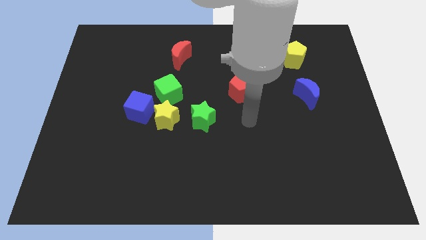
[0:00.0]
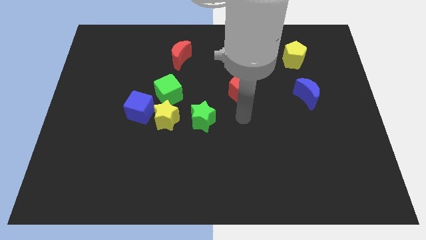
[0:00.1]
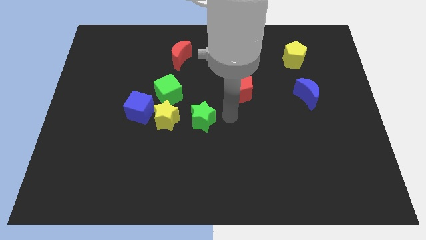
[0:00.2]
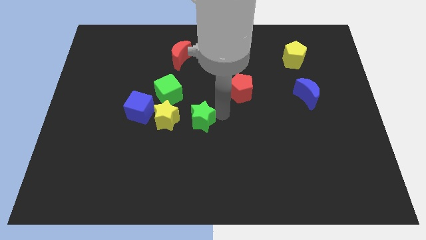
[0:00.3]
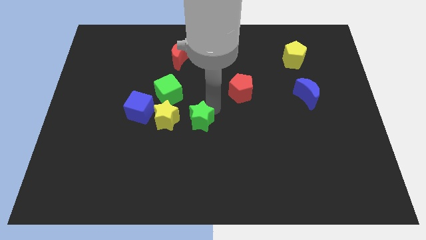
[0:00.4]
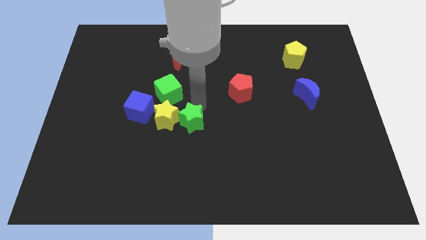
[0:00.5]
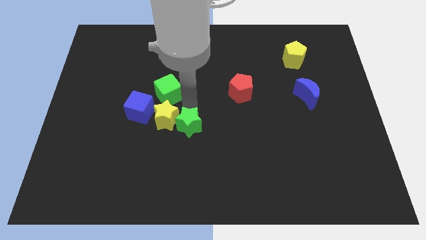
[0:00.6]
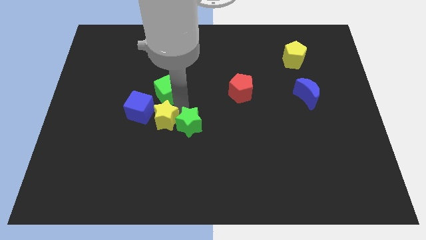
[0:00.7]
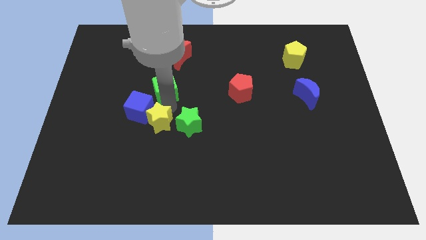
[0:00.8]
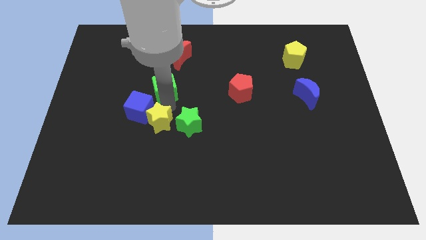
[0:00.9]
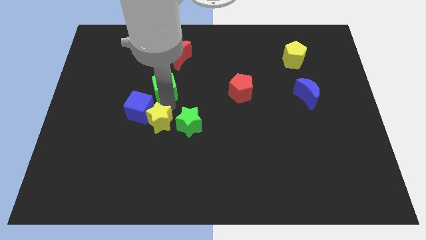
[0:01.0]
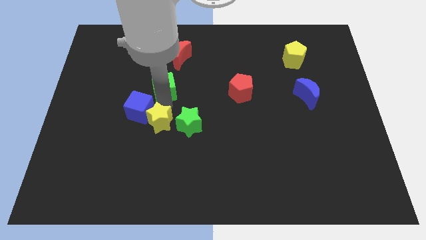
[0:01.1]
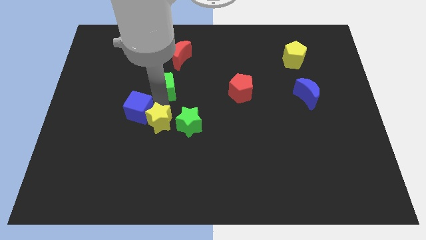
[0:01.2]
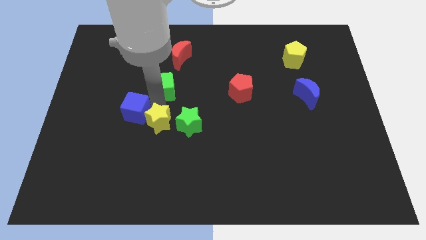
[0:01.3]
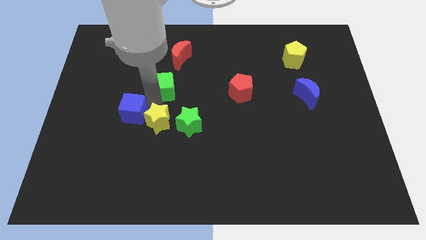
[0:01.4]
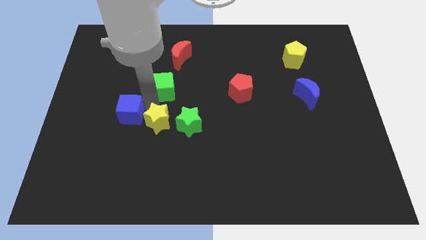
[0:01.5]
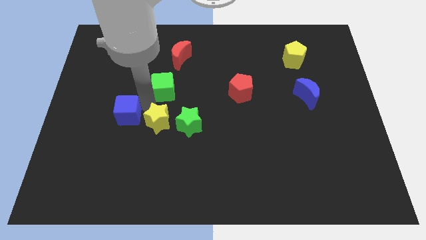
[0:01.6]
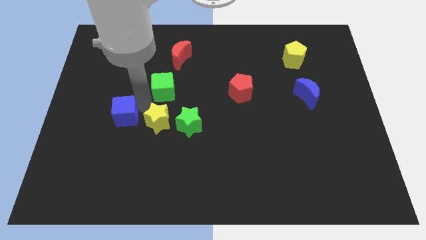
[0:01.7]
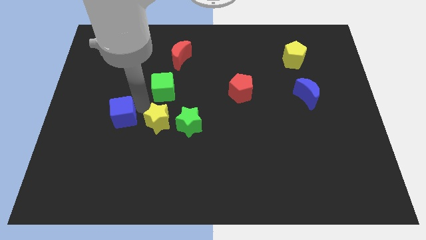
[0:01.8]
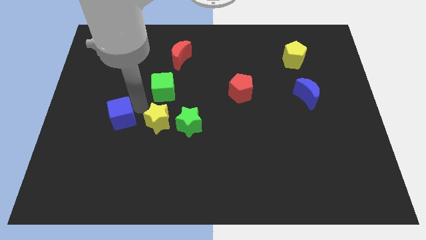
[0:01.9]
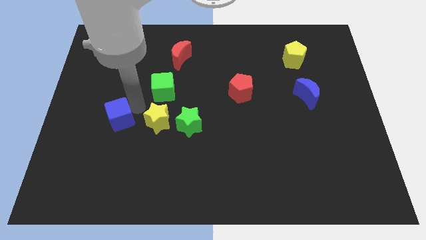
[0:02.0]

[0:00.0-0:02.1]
pull the blue cube apart from the yellow star and green cube

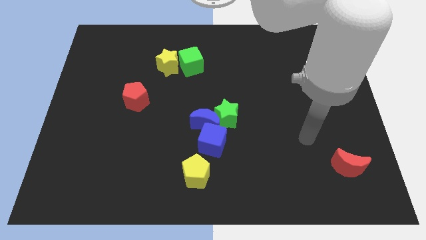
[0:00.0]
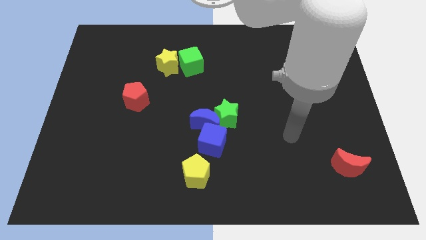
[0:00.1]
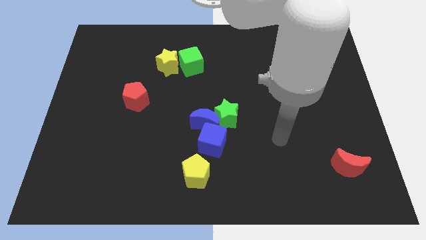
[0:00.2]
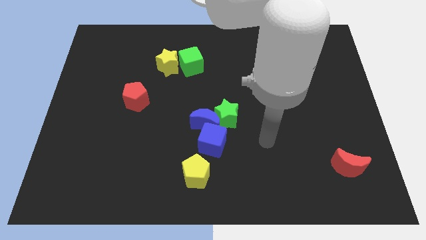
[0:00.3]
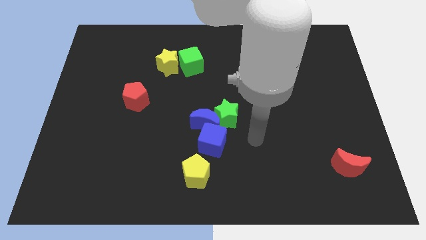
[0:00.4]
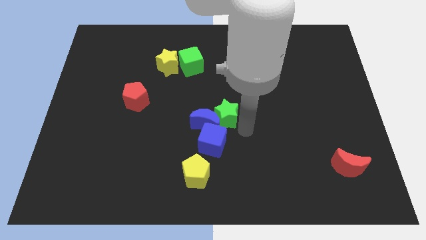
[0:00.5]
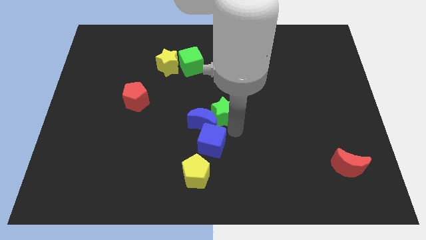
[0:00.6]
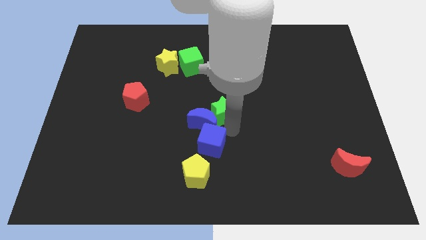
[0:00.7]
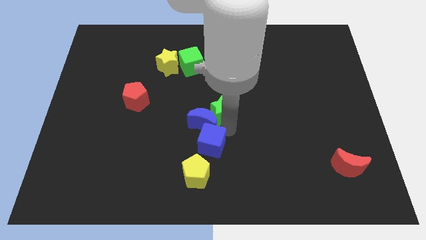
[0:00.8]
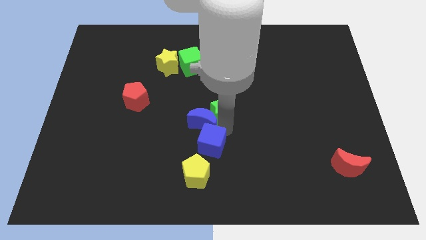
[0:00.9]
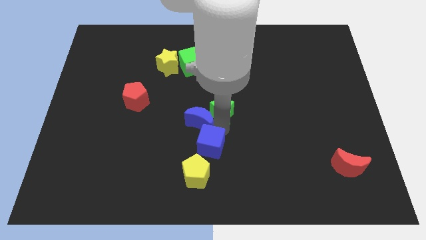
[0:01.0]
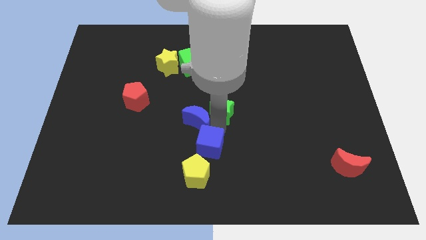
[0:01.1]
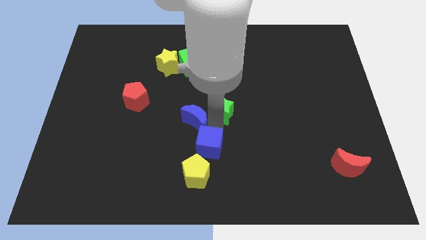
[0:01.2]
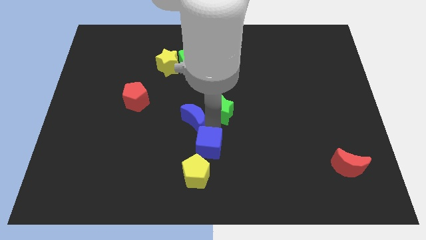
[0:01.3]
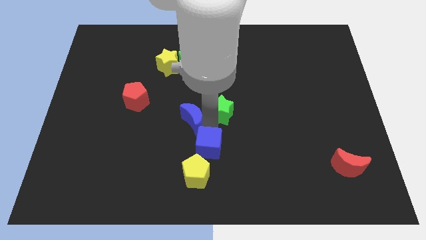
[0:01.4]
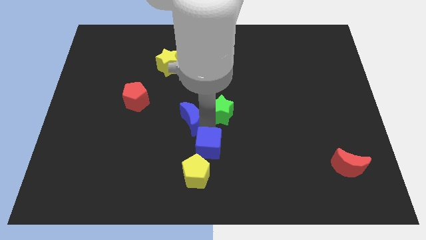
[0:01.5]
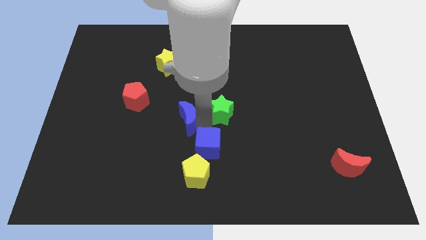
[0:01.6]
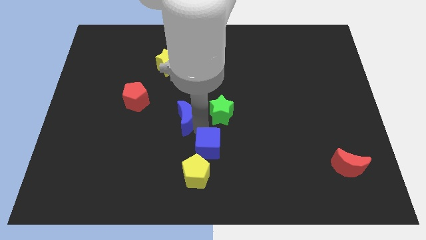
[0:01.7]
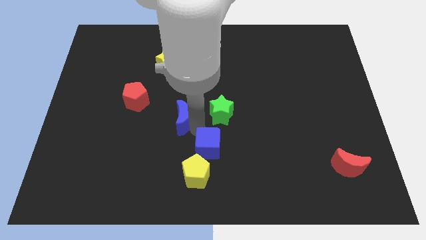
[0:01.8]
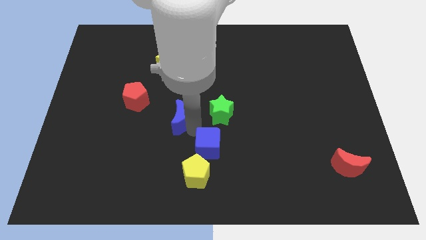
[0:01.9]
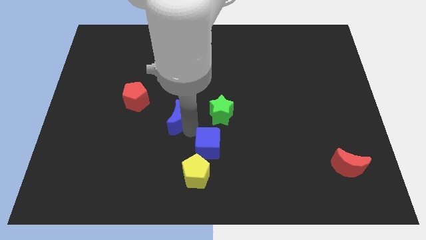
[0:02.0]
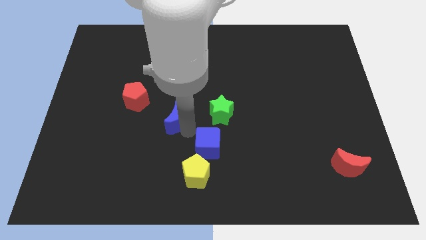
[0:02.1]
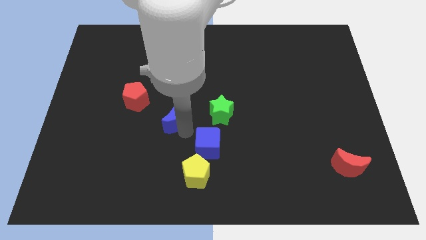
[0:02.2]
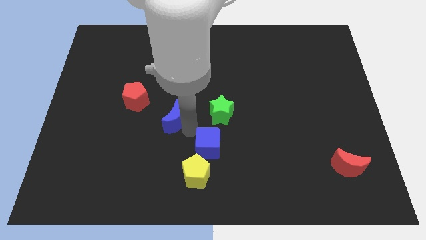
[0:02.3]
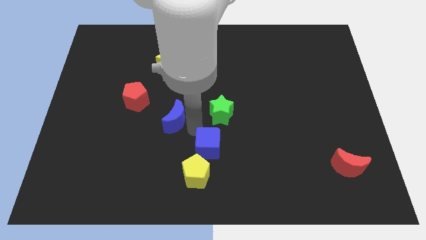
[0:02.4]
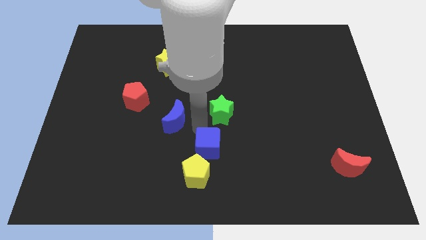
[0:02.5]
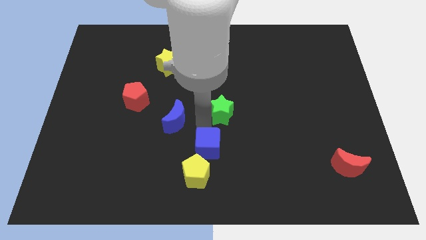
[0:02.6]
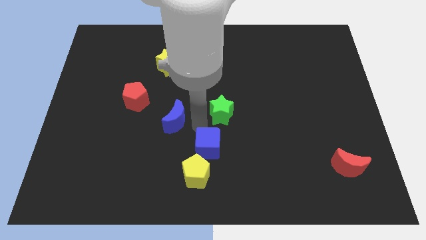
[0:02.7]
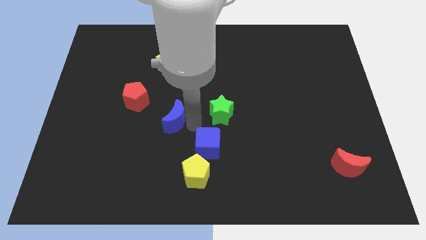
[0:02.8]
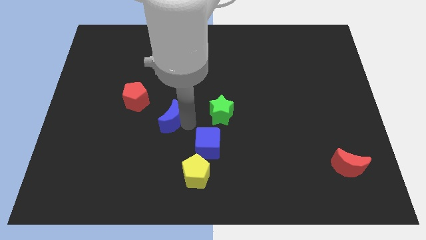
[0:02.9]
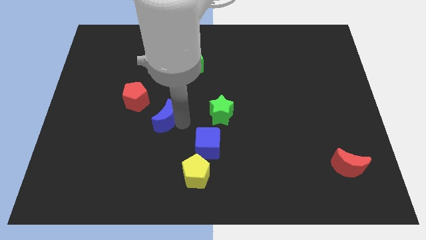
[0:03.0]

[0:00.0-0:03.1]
pull the blue moon apart from the green star and blue cube

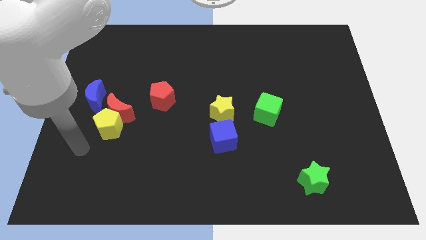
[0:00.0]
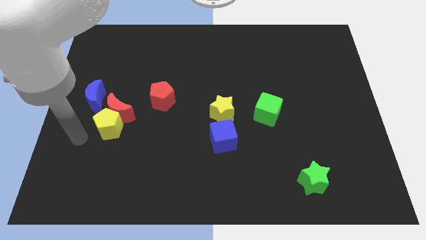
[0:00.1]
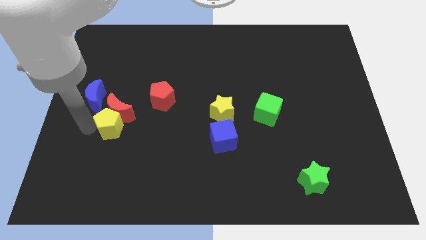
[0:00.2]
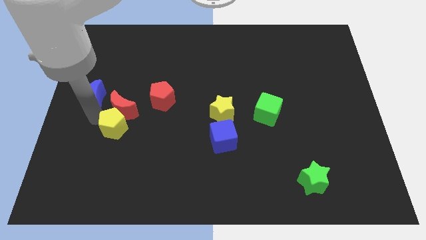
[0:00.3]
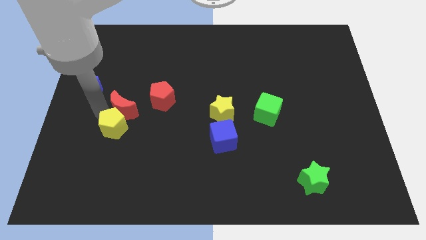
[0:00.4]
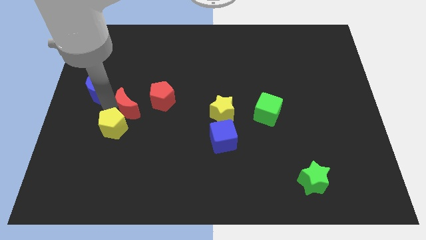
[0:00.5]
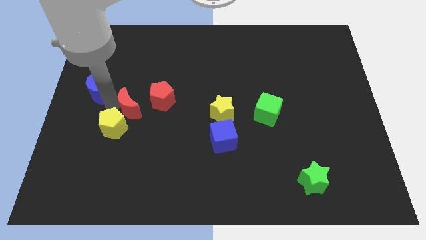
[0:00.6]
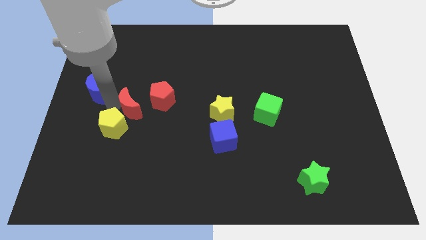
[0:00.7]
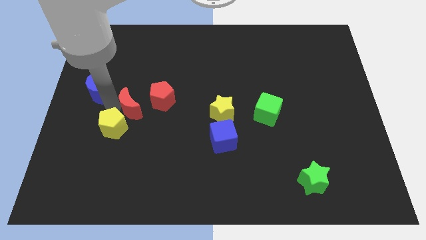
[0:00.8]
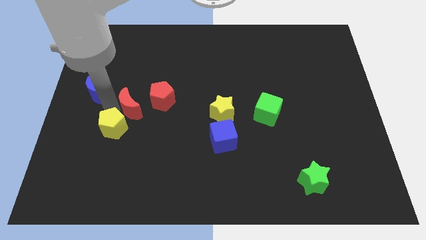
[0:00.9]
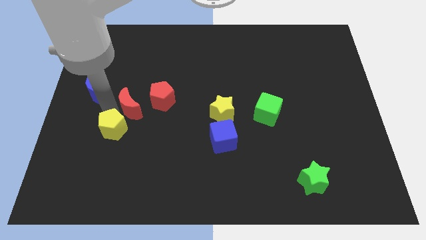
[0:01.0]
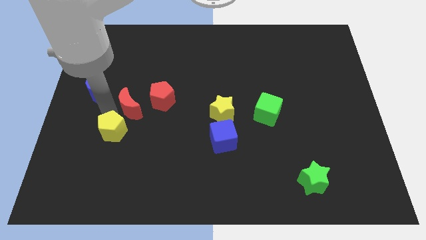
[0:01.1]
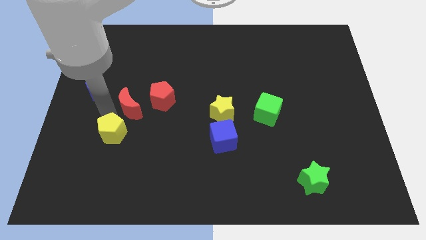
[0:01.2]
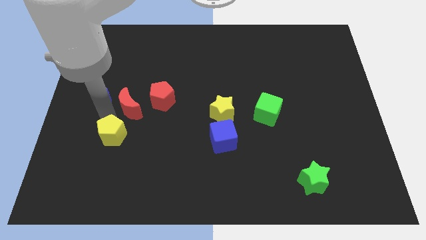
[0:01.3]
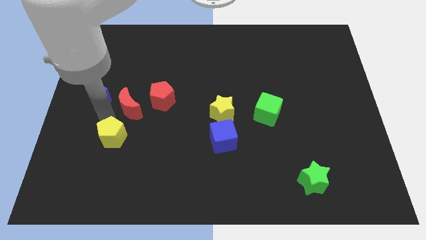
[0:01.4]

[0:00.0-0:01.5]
separate the yellow pentagon from the red moon and blue moon

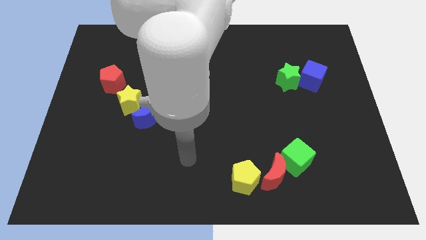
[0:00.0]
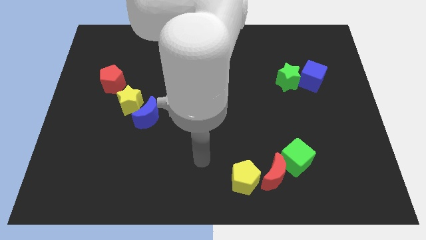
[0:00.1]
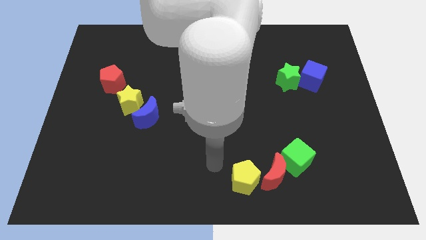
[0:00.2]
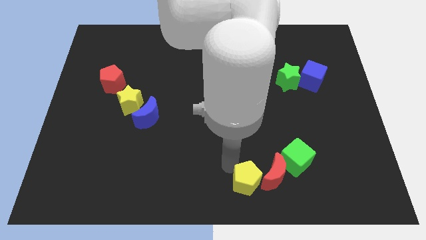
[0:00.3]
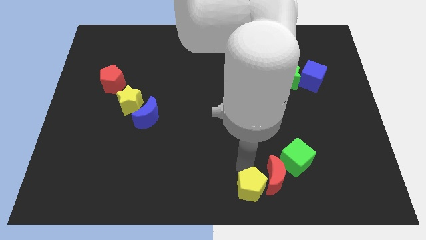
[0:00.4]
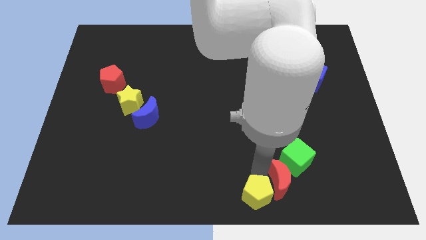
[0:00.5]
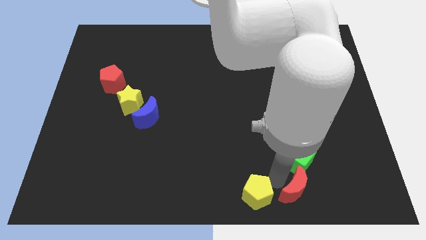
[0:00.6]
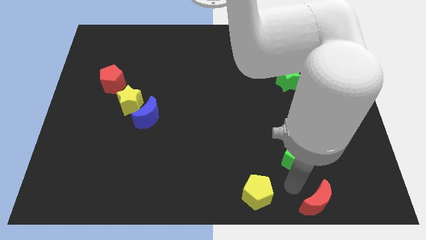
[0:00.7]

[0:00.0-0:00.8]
move the green cube away from the red moon

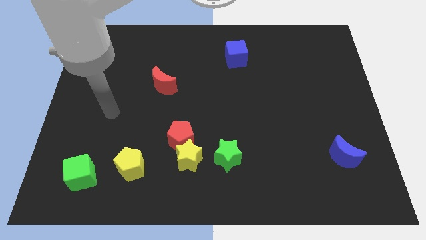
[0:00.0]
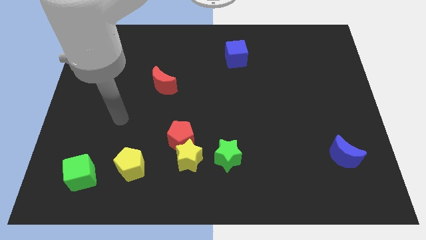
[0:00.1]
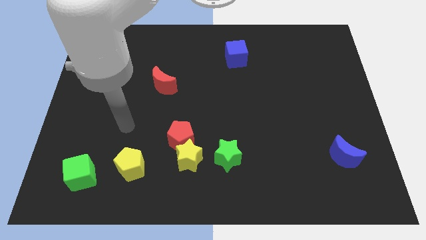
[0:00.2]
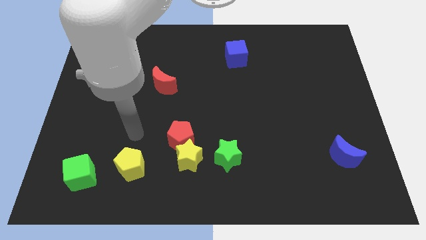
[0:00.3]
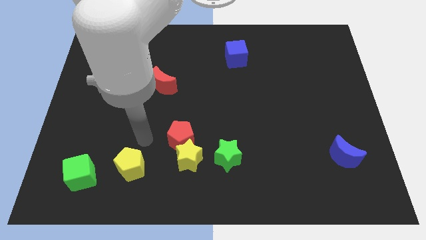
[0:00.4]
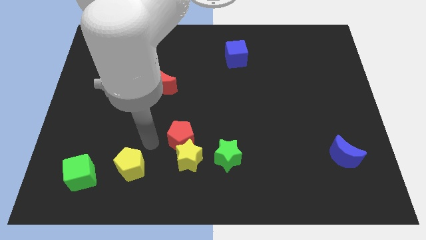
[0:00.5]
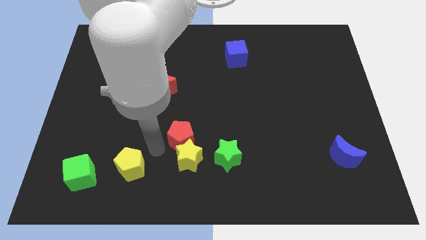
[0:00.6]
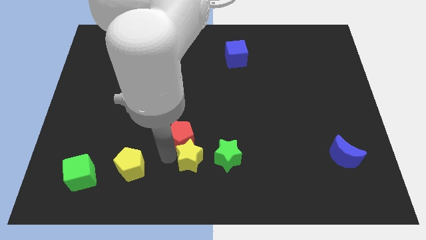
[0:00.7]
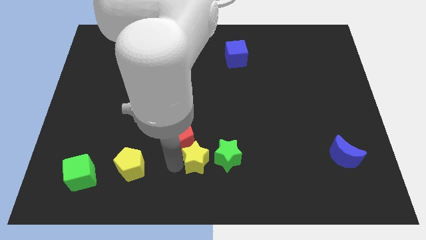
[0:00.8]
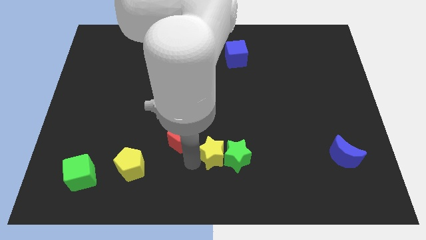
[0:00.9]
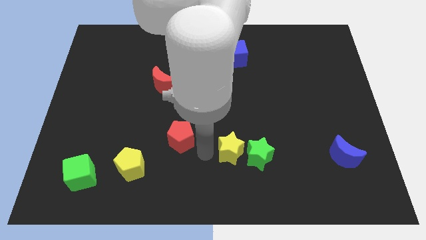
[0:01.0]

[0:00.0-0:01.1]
pull the red pentagon apart from the yellow star

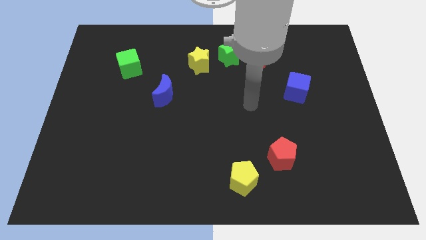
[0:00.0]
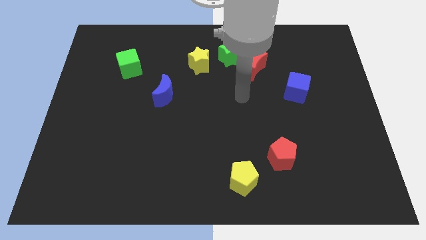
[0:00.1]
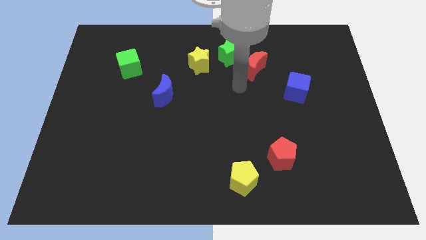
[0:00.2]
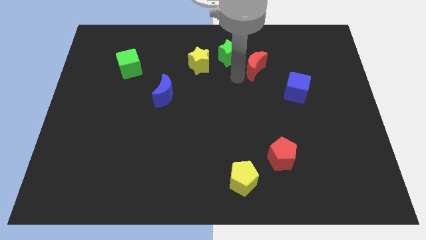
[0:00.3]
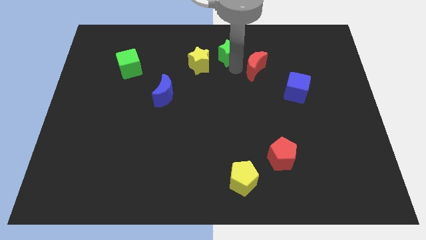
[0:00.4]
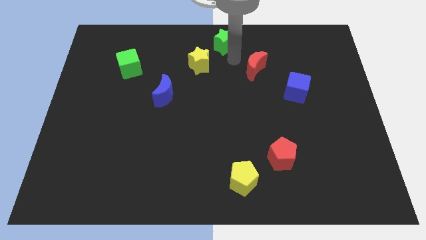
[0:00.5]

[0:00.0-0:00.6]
move the red moon away from the green star

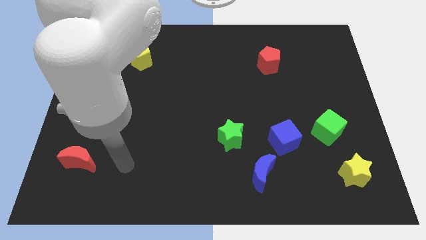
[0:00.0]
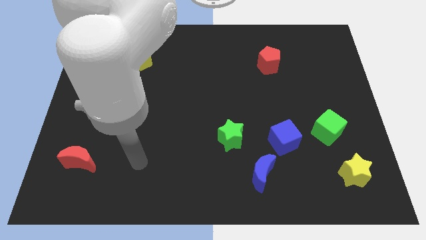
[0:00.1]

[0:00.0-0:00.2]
separate the blue cube from the blue moon
